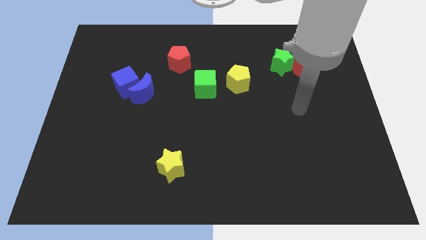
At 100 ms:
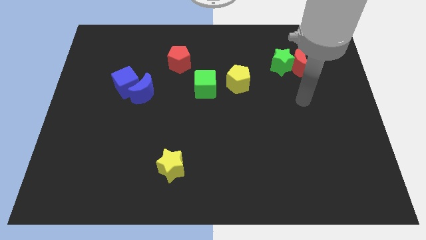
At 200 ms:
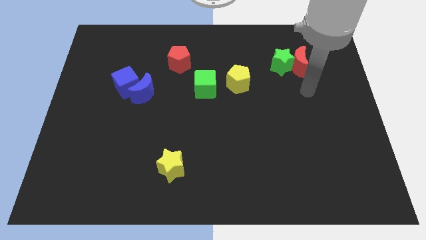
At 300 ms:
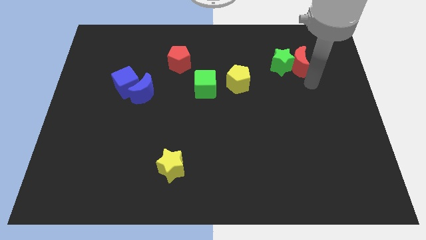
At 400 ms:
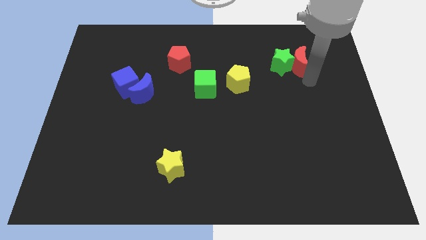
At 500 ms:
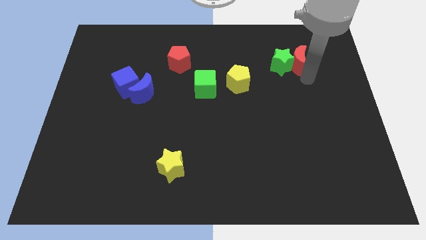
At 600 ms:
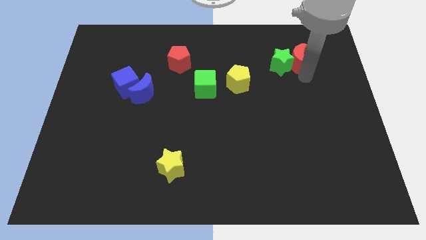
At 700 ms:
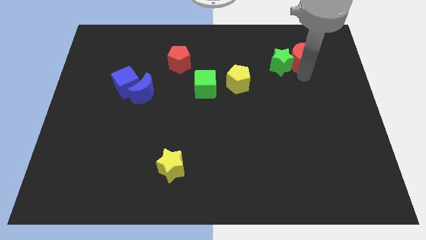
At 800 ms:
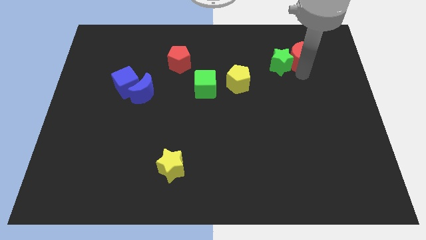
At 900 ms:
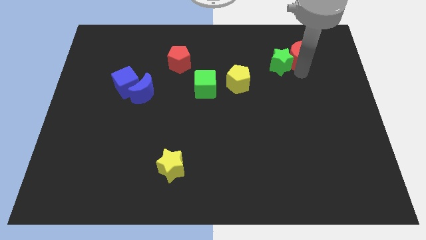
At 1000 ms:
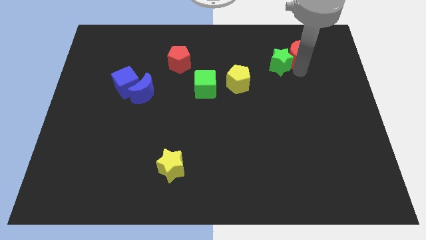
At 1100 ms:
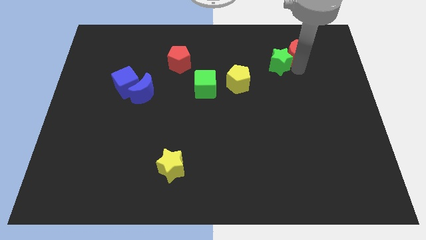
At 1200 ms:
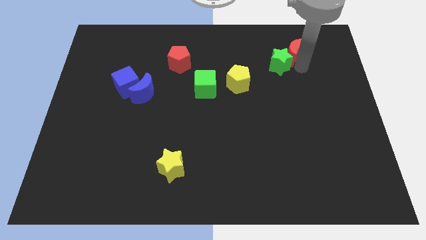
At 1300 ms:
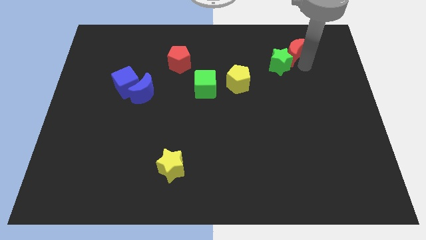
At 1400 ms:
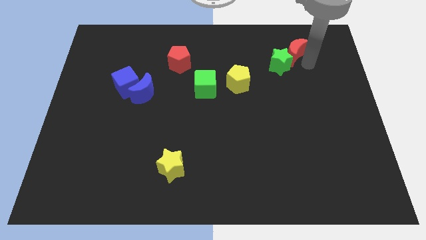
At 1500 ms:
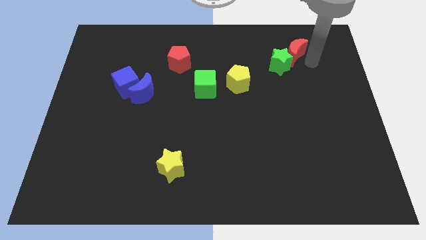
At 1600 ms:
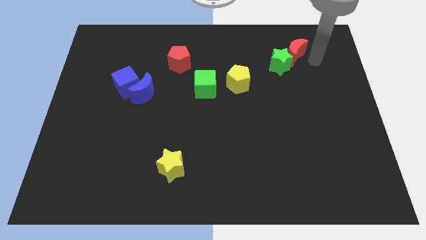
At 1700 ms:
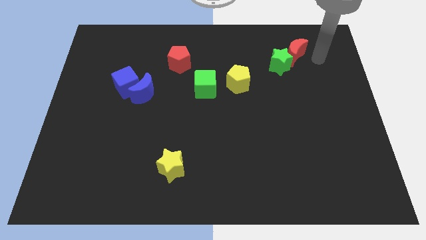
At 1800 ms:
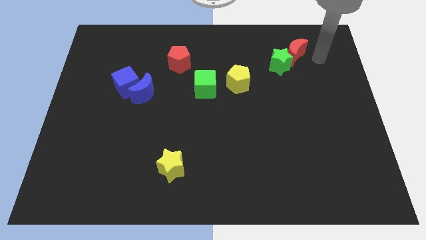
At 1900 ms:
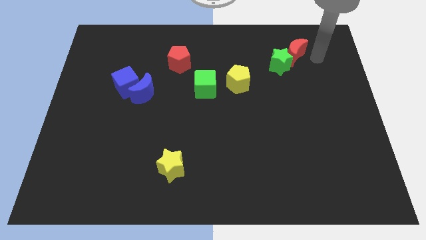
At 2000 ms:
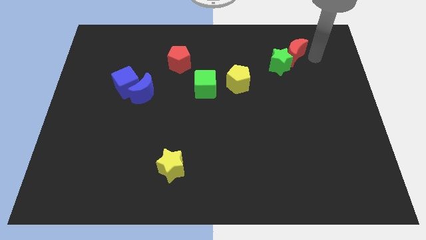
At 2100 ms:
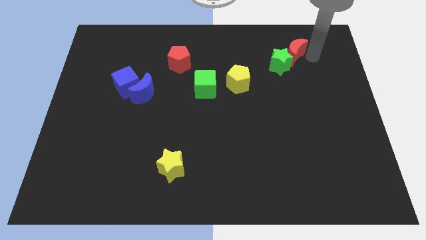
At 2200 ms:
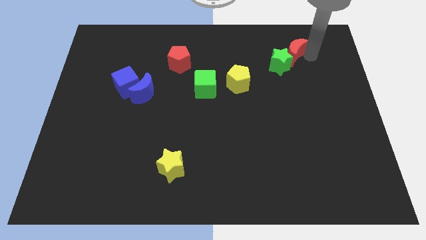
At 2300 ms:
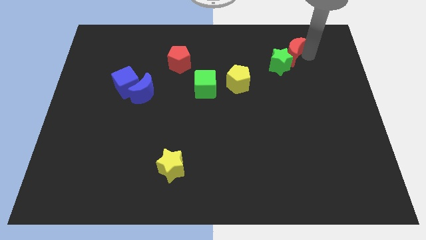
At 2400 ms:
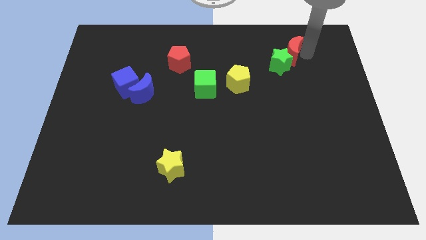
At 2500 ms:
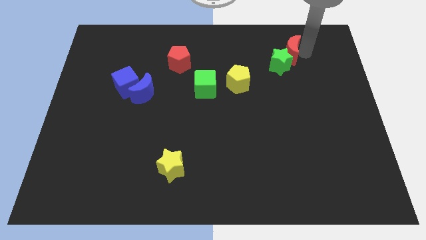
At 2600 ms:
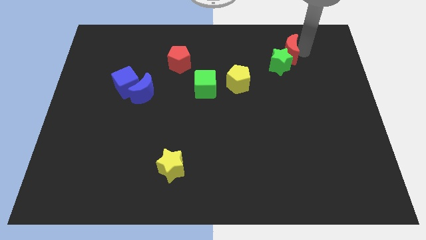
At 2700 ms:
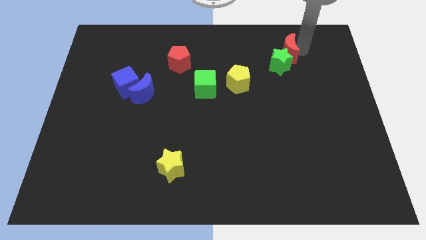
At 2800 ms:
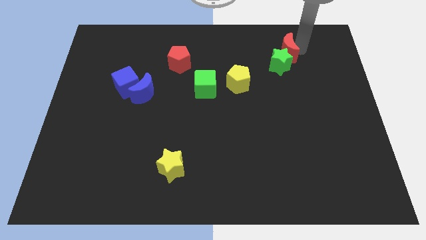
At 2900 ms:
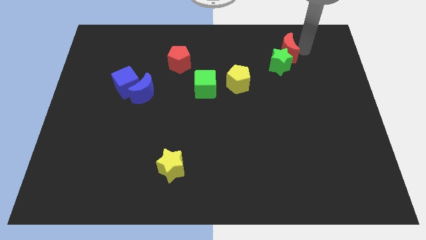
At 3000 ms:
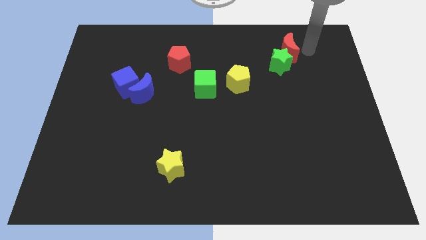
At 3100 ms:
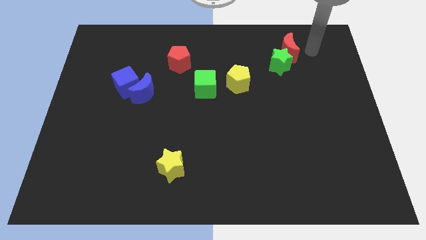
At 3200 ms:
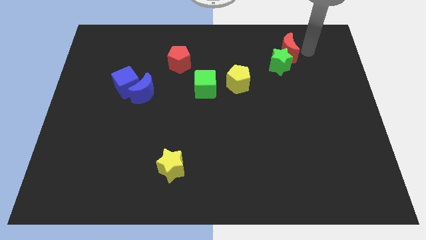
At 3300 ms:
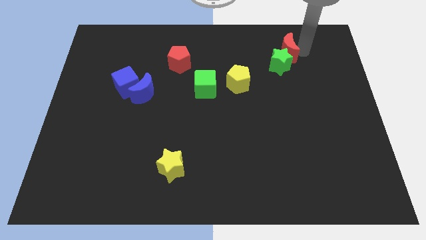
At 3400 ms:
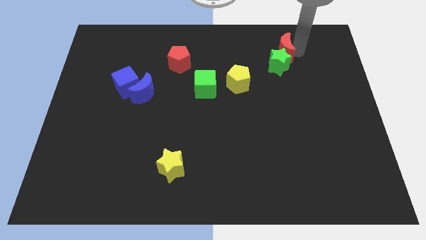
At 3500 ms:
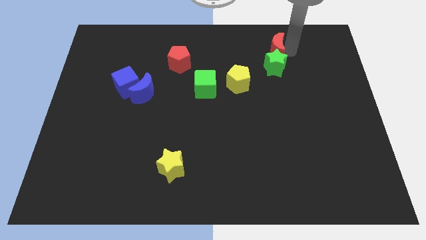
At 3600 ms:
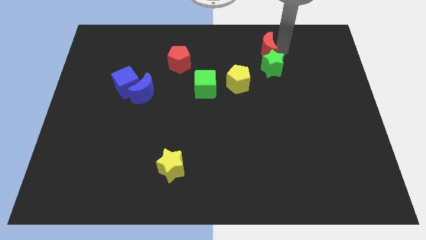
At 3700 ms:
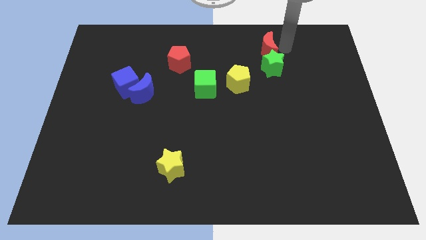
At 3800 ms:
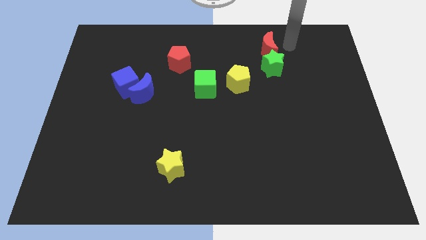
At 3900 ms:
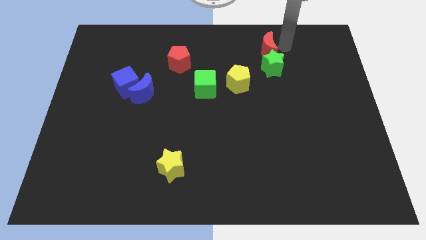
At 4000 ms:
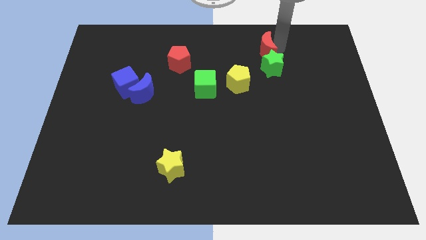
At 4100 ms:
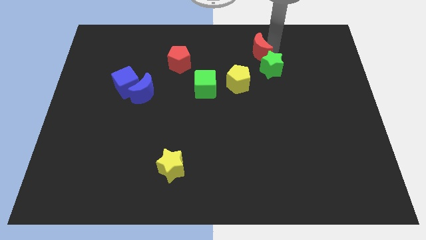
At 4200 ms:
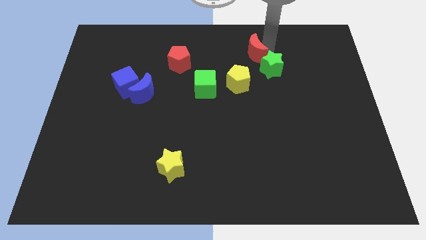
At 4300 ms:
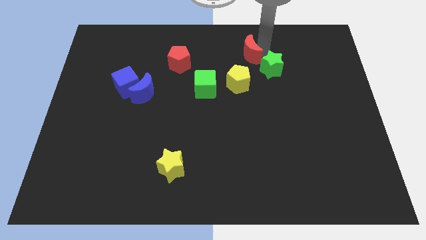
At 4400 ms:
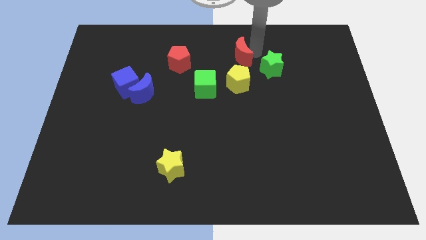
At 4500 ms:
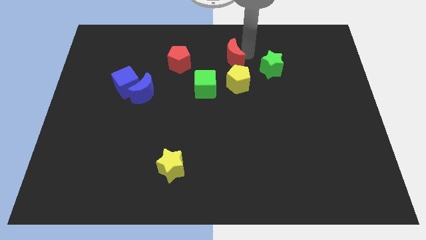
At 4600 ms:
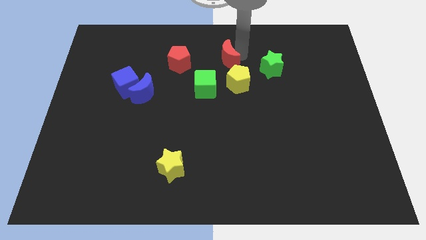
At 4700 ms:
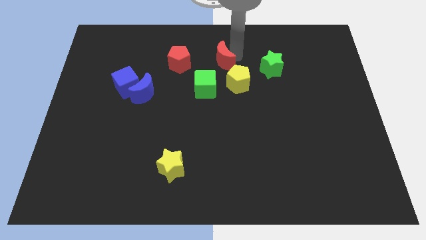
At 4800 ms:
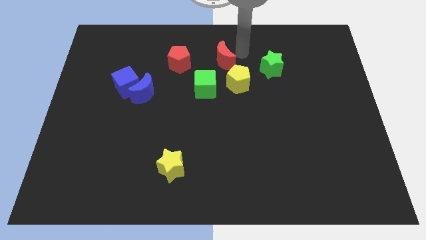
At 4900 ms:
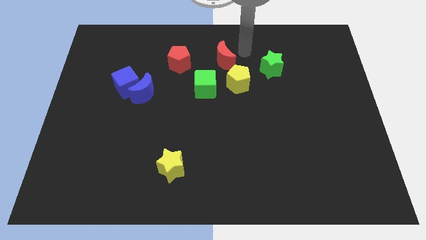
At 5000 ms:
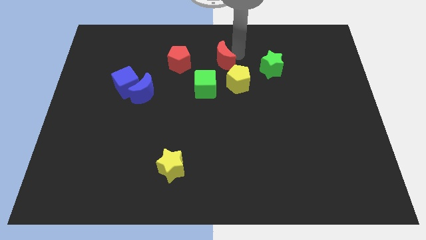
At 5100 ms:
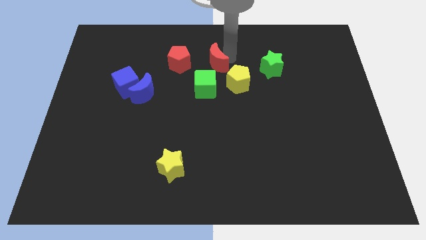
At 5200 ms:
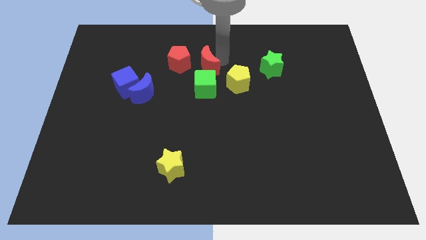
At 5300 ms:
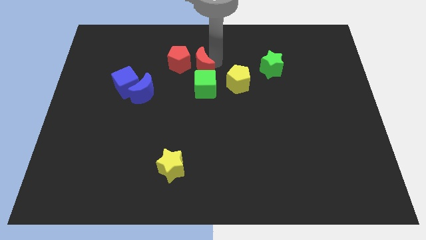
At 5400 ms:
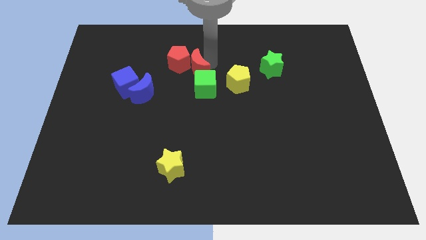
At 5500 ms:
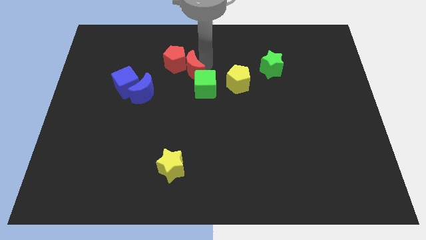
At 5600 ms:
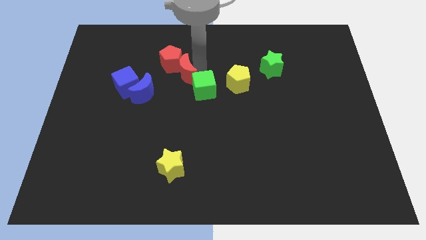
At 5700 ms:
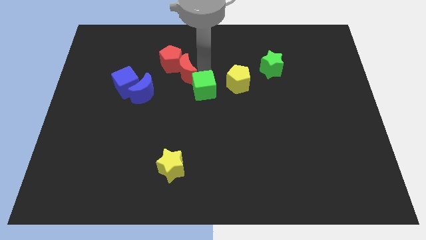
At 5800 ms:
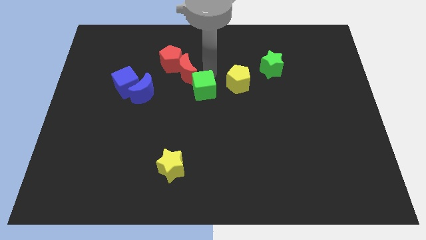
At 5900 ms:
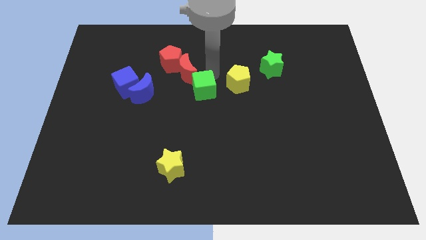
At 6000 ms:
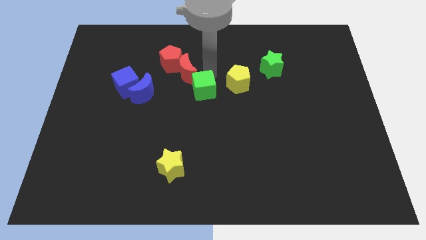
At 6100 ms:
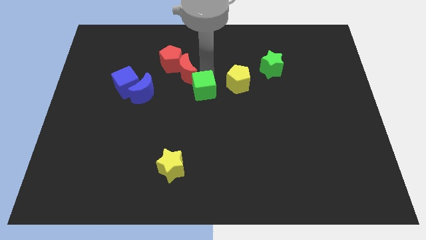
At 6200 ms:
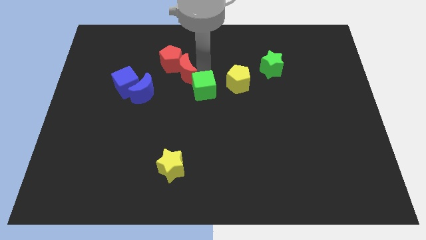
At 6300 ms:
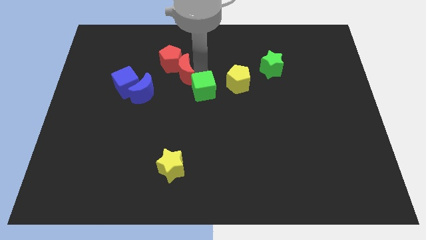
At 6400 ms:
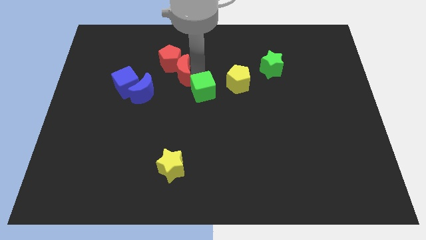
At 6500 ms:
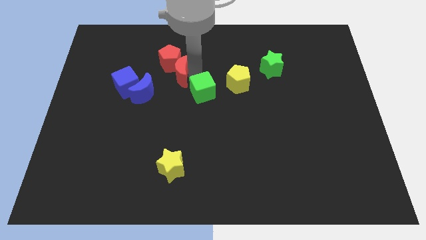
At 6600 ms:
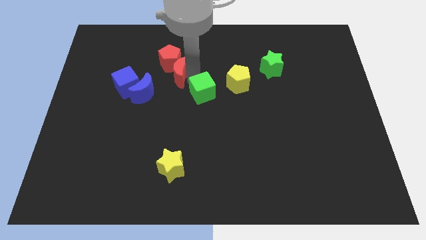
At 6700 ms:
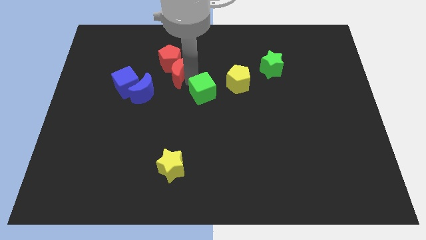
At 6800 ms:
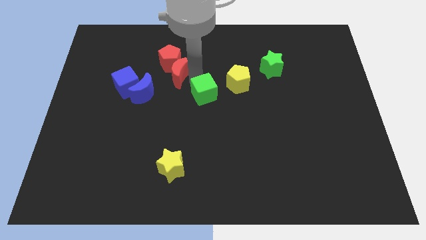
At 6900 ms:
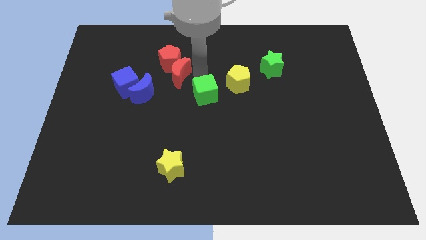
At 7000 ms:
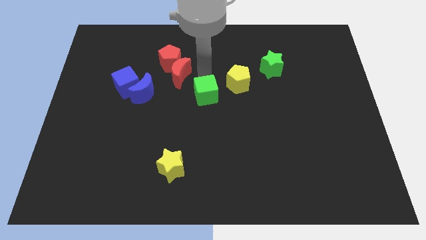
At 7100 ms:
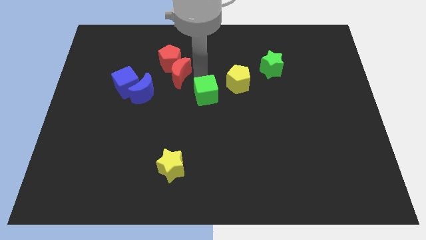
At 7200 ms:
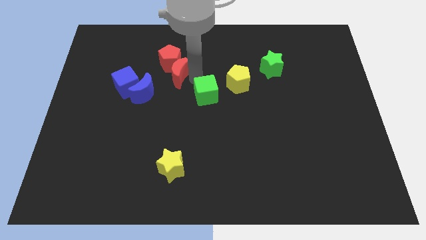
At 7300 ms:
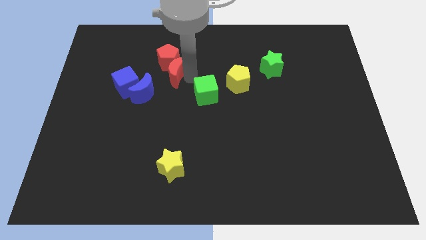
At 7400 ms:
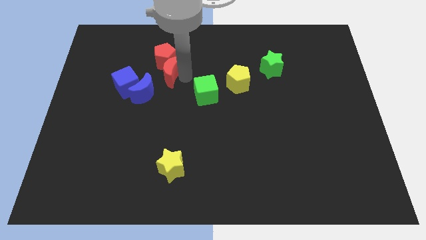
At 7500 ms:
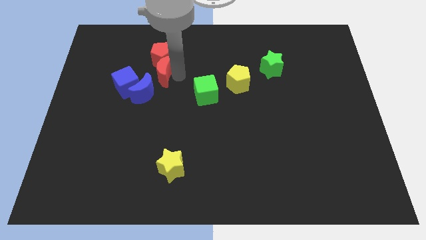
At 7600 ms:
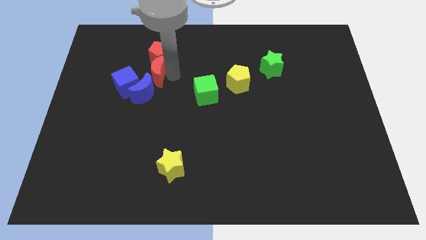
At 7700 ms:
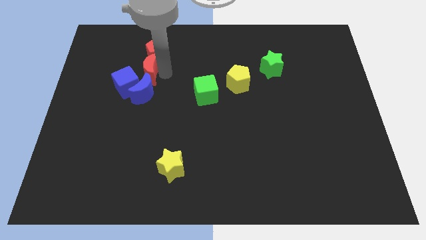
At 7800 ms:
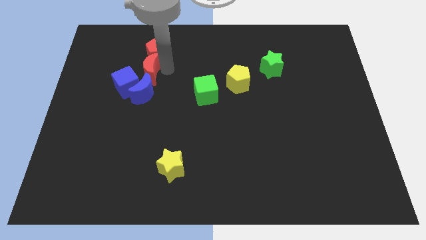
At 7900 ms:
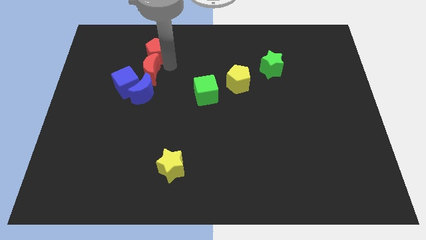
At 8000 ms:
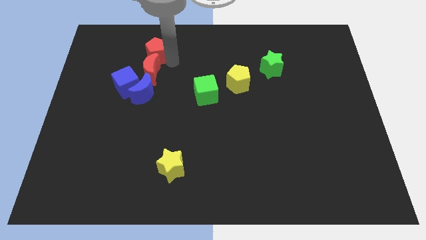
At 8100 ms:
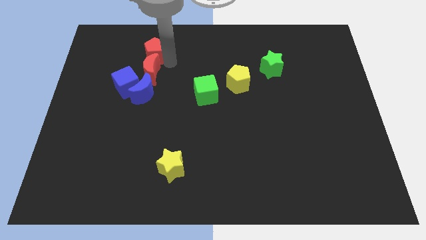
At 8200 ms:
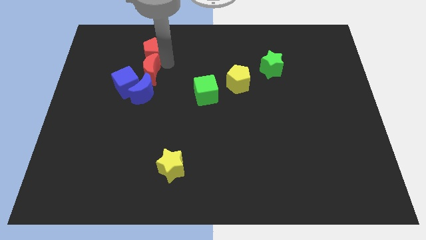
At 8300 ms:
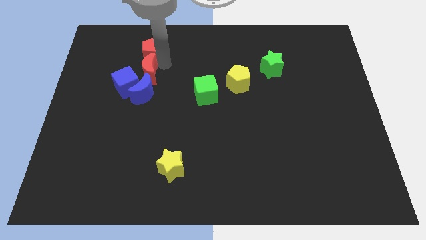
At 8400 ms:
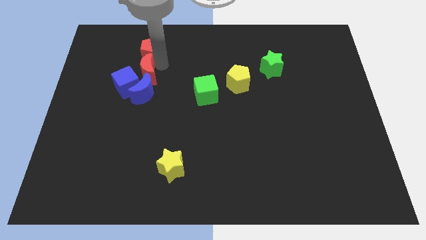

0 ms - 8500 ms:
push the red moon towards the blue cube
